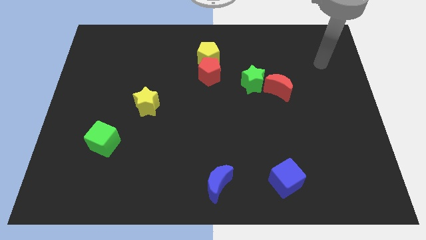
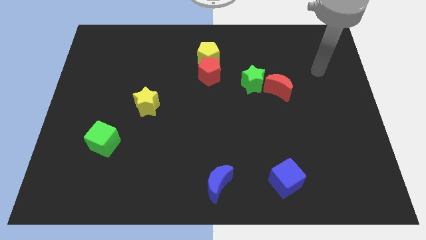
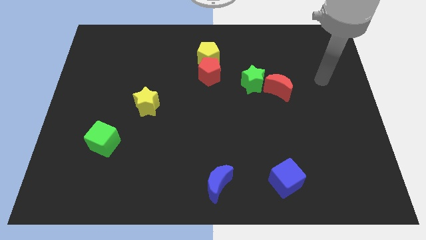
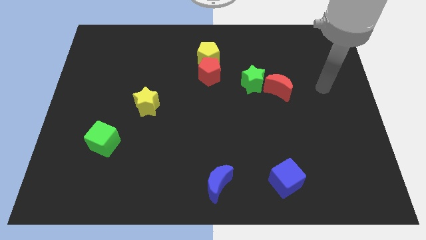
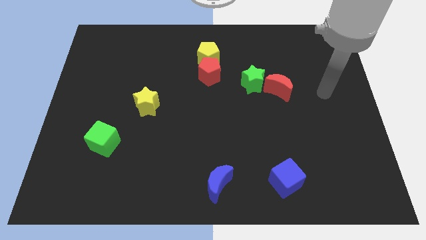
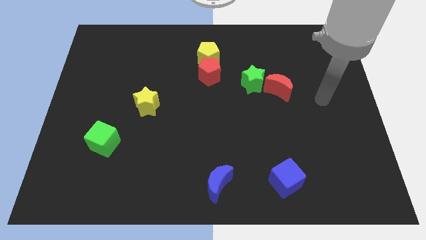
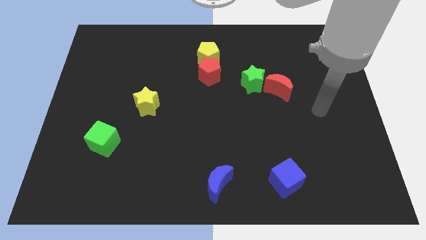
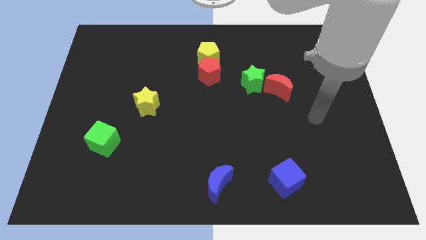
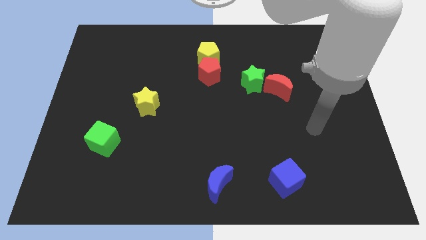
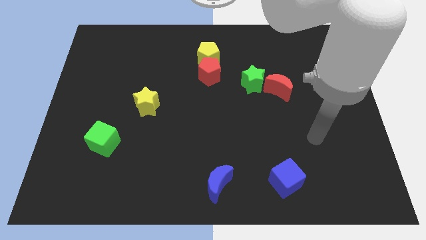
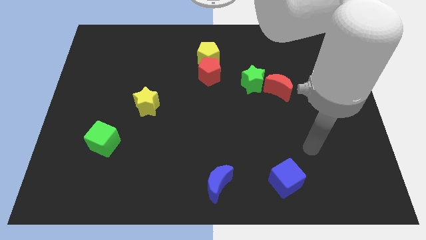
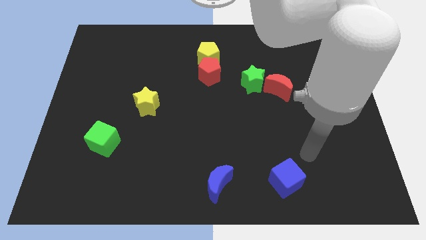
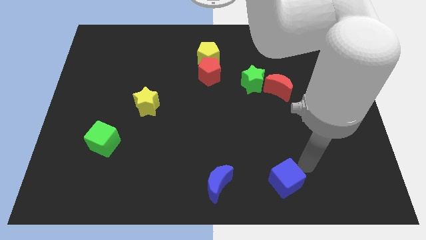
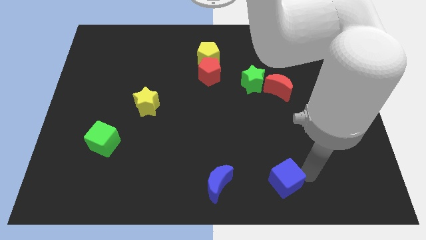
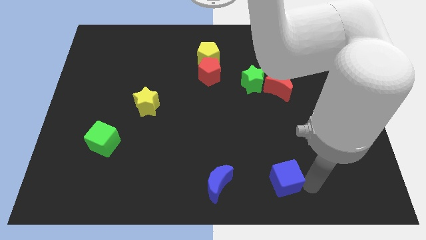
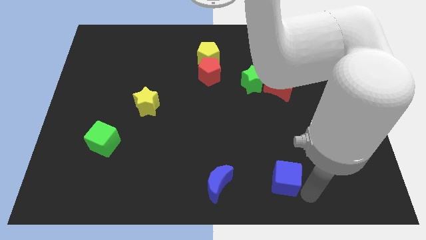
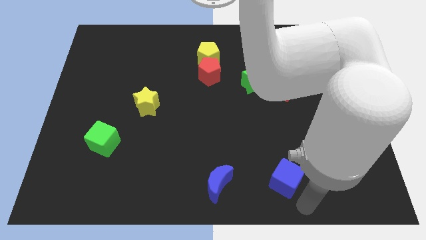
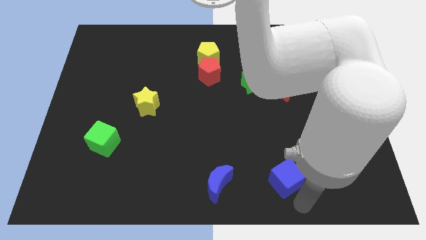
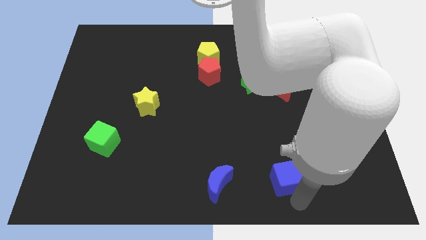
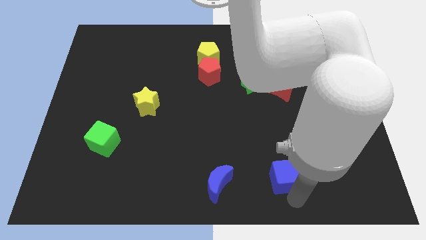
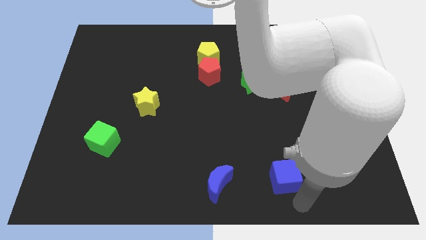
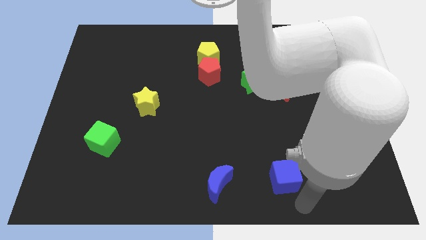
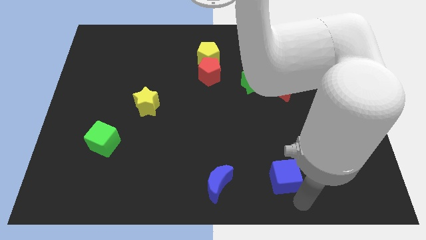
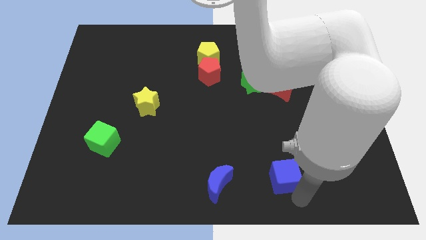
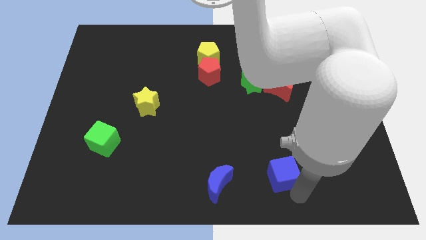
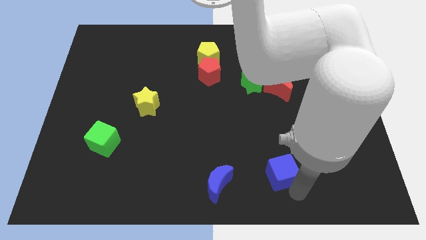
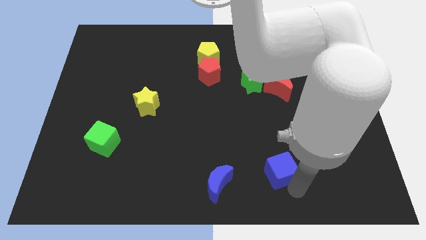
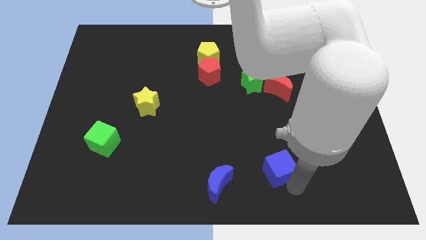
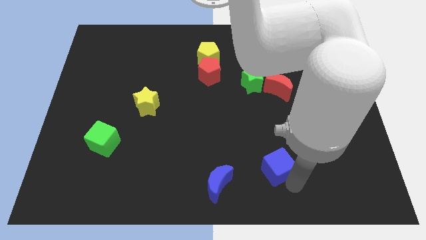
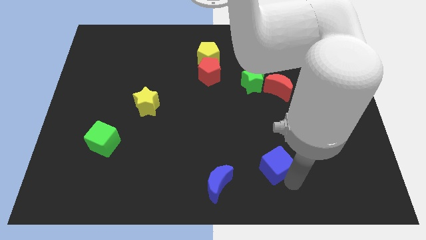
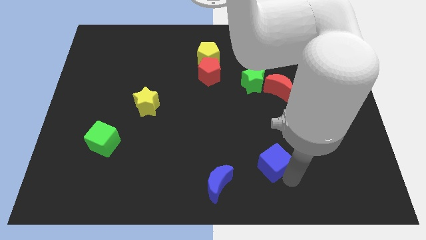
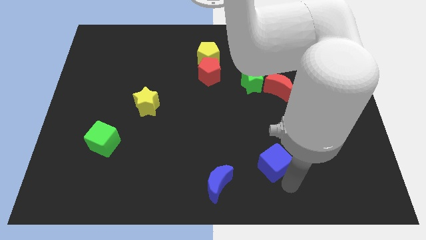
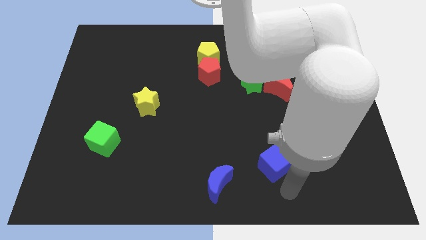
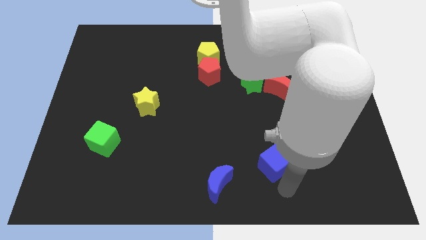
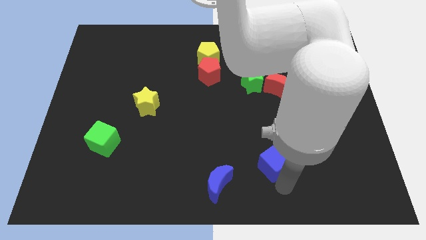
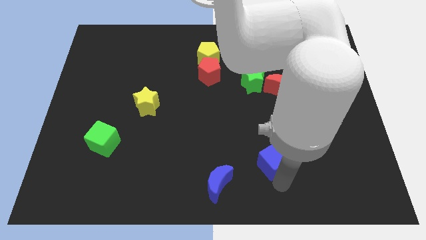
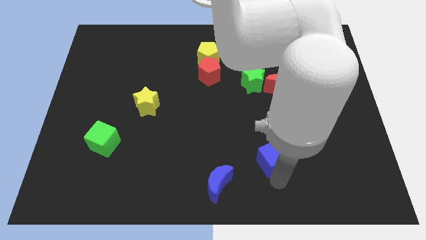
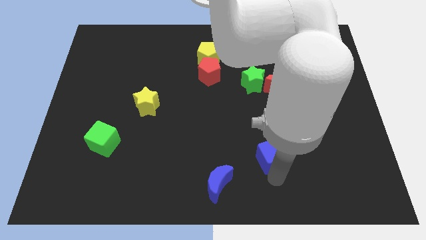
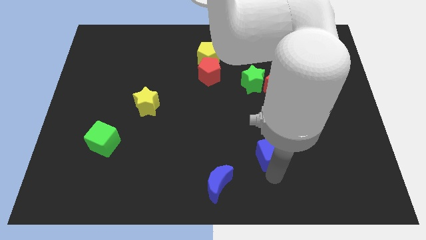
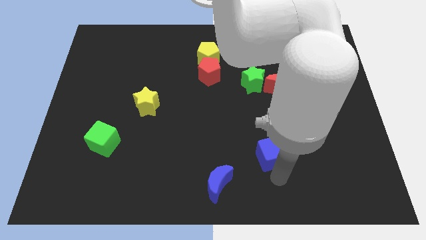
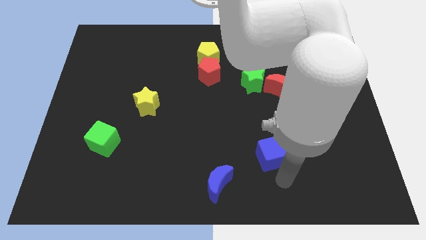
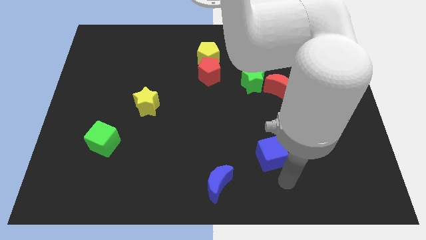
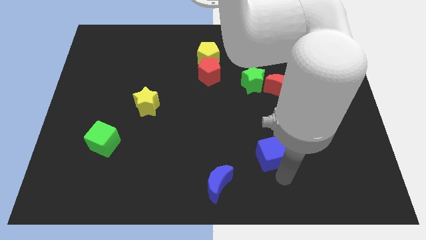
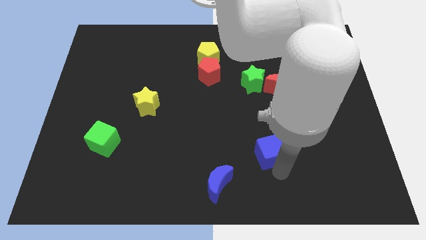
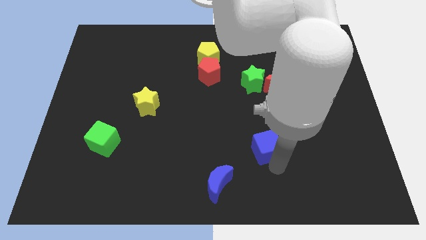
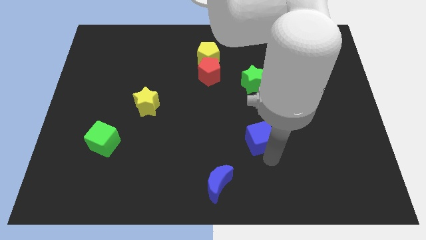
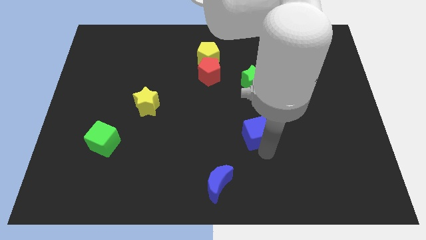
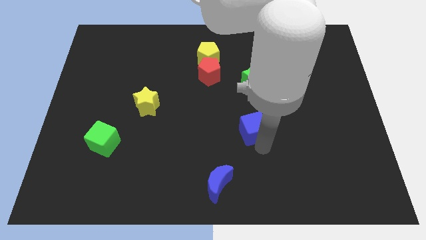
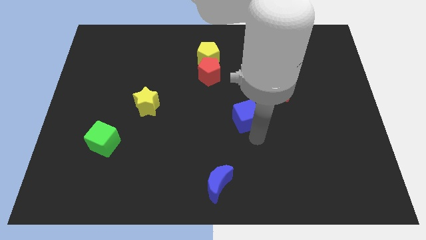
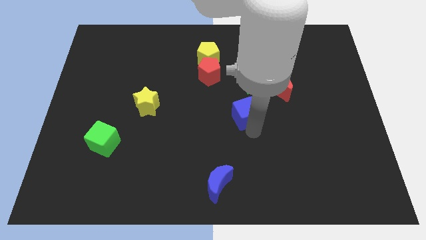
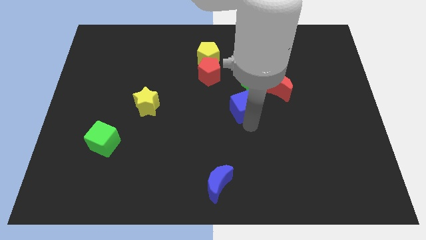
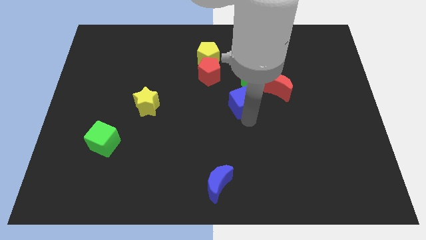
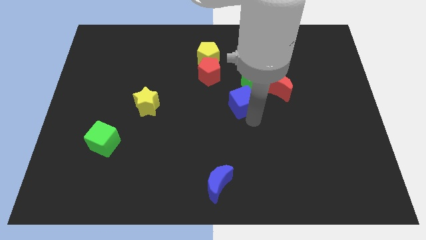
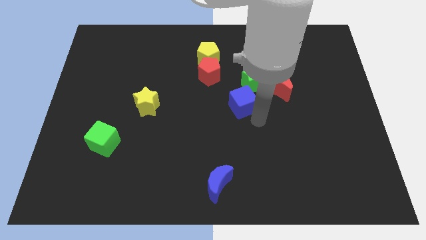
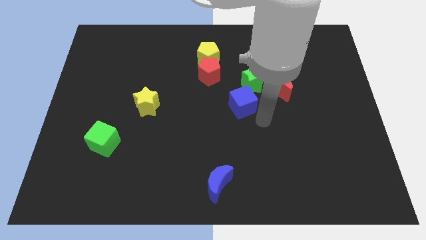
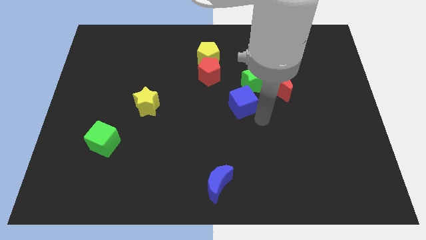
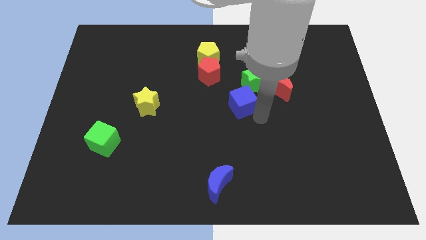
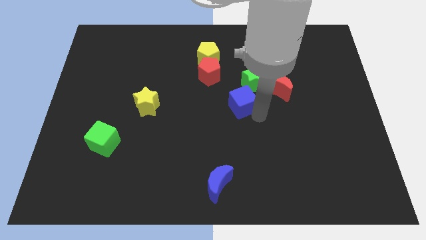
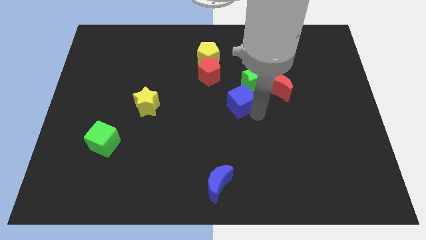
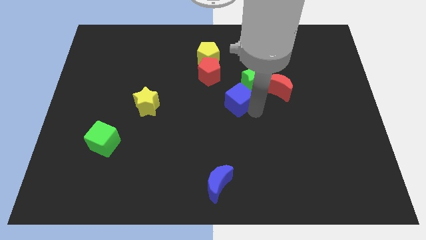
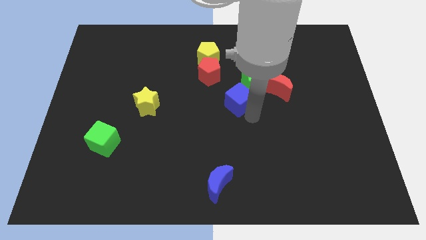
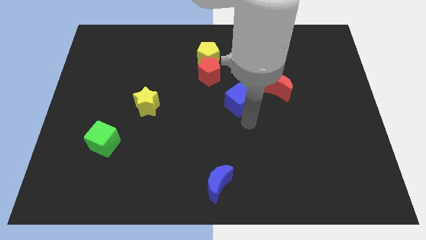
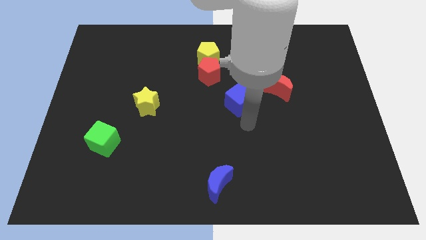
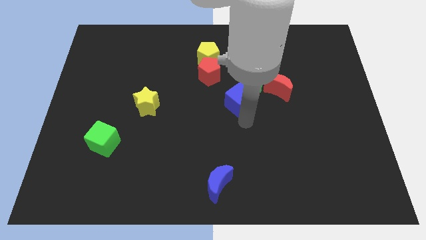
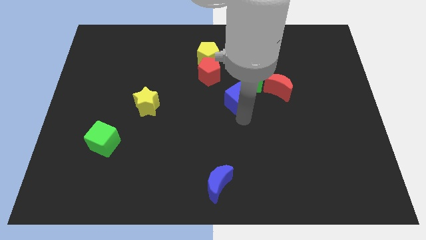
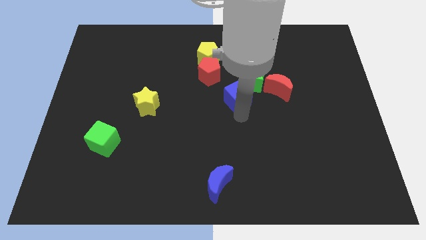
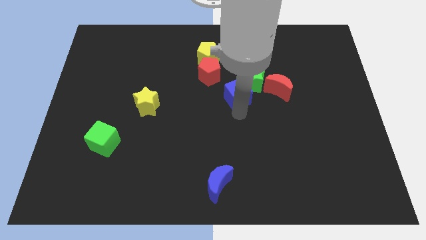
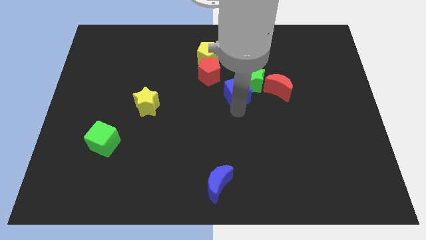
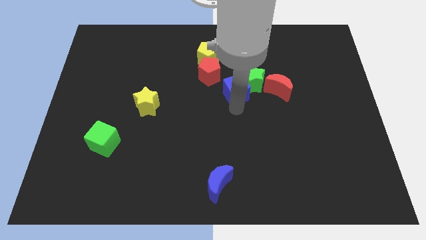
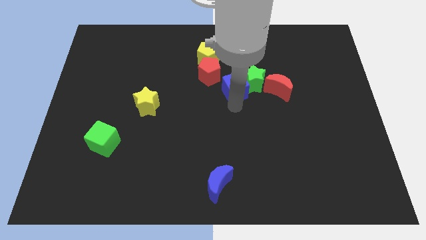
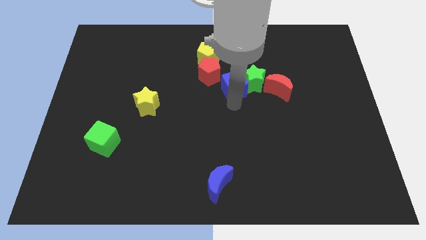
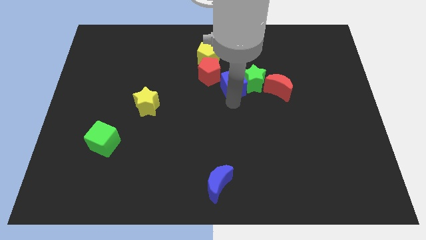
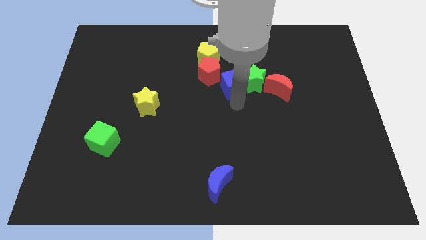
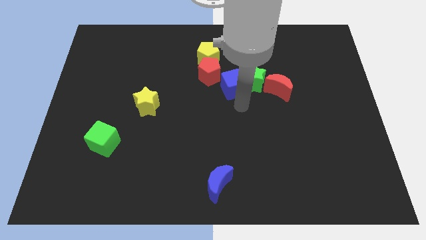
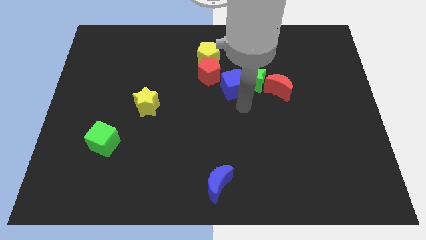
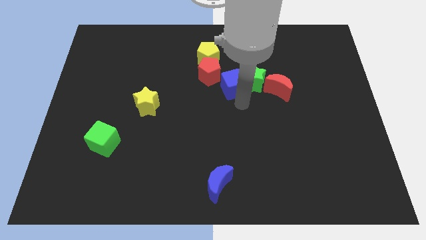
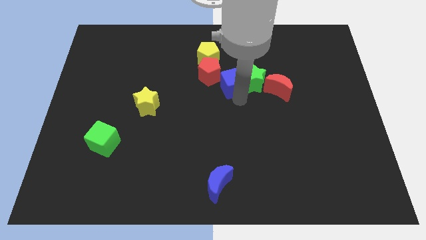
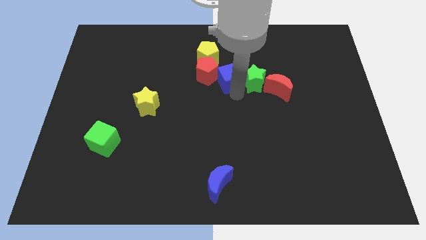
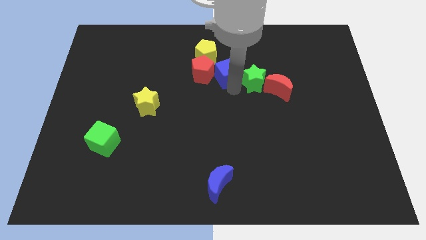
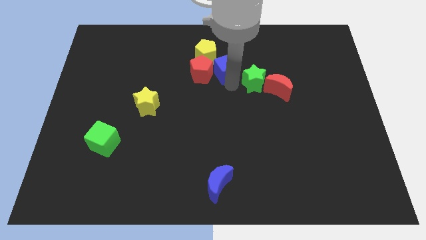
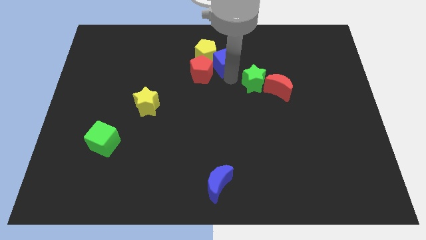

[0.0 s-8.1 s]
move the blue cube close to the yellow pentagon
